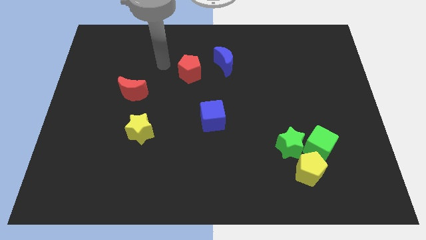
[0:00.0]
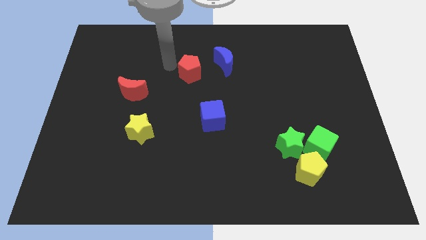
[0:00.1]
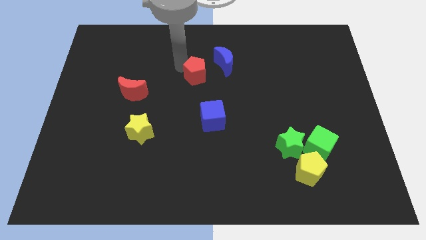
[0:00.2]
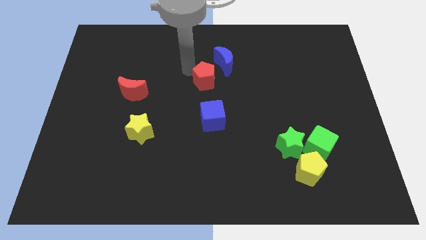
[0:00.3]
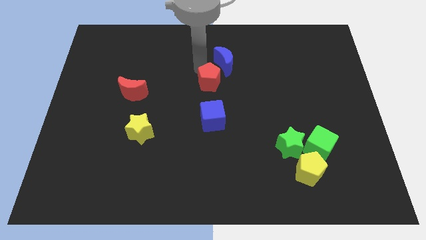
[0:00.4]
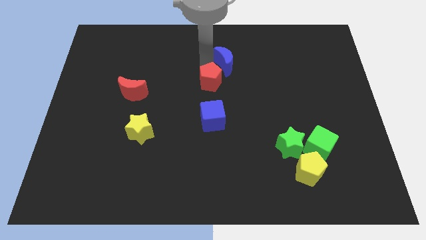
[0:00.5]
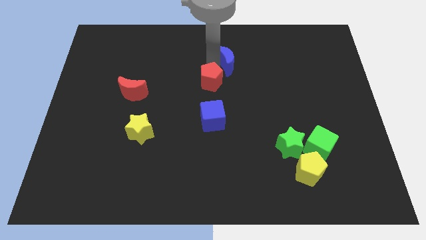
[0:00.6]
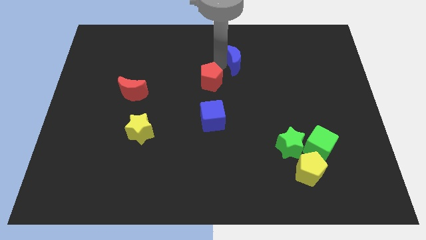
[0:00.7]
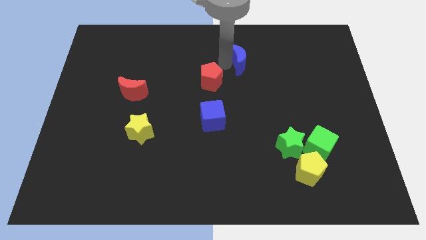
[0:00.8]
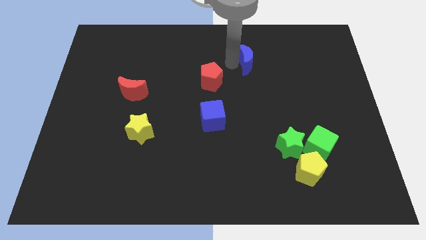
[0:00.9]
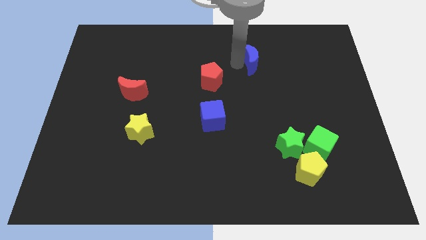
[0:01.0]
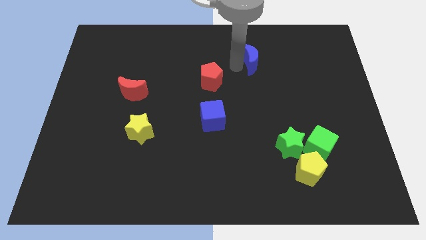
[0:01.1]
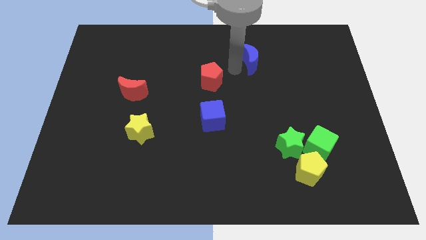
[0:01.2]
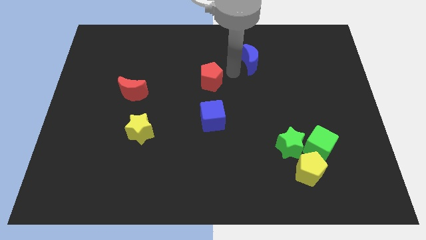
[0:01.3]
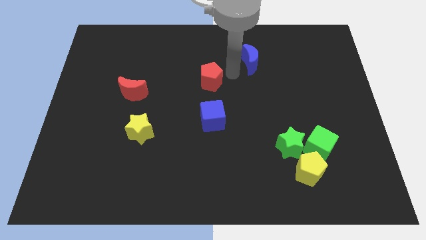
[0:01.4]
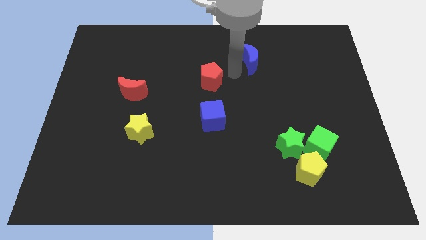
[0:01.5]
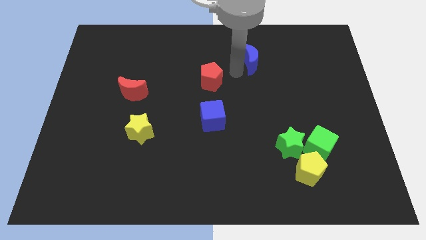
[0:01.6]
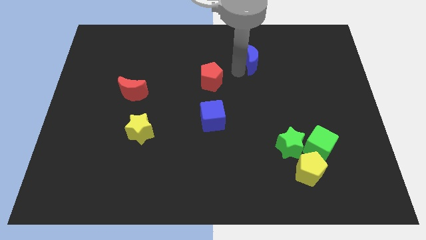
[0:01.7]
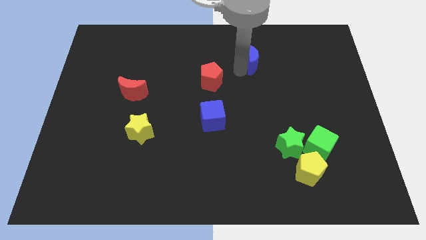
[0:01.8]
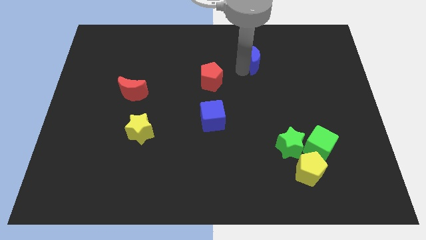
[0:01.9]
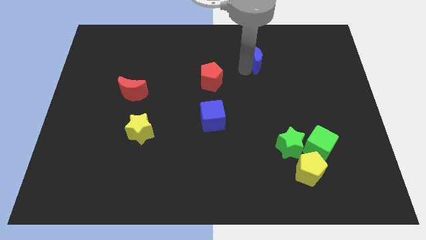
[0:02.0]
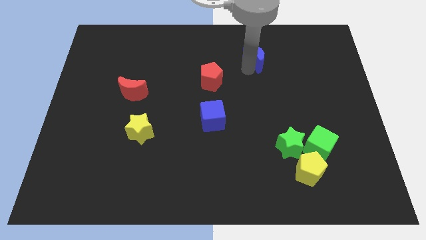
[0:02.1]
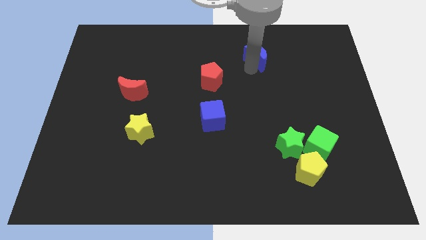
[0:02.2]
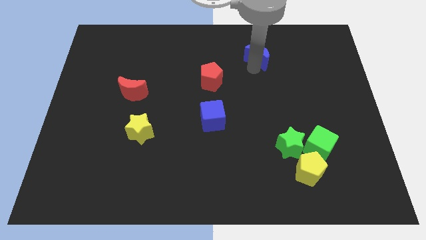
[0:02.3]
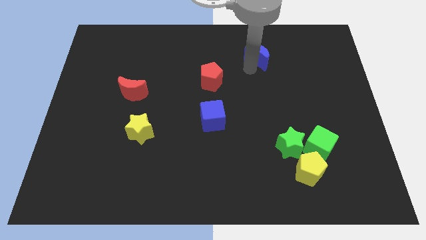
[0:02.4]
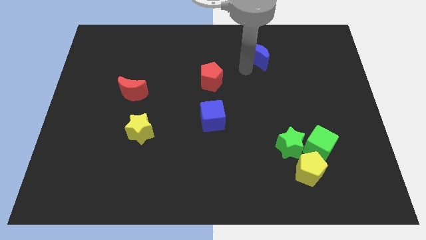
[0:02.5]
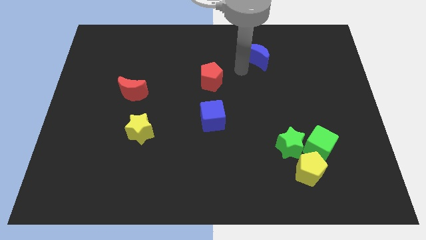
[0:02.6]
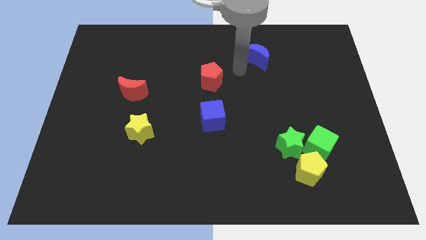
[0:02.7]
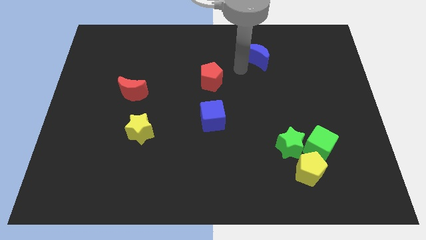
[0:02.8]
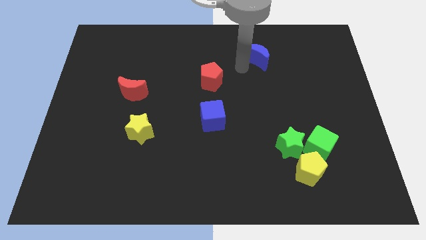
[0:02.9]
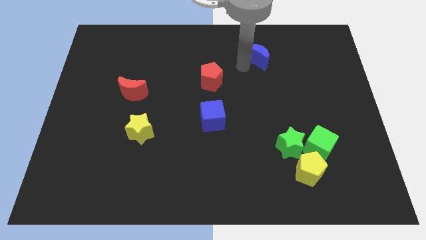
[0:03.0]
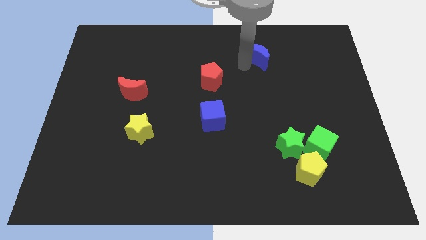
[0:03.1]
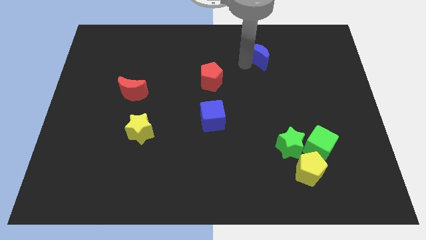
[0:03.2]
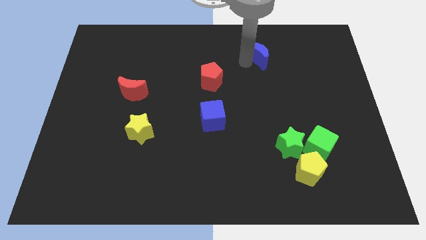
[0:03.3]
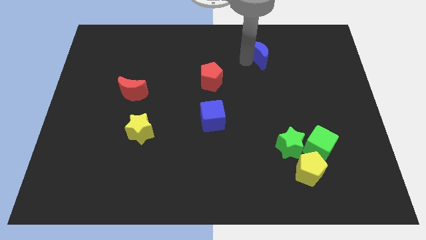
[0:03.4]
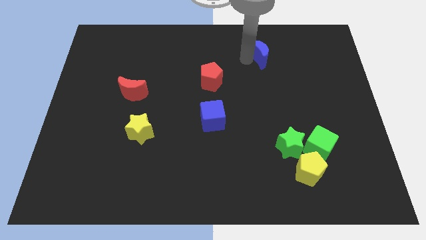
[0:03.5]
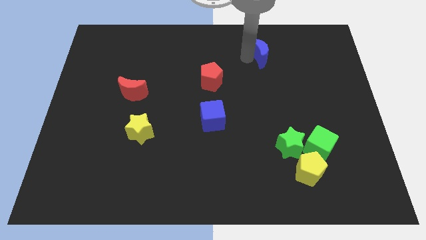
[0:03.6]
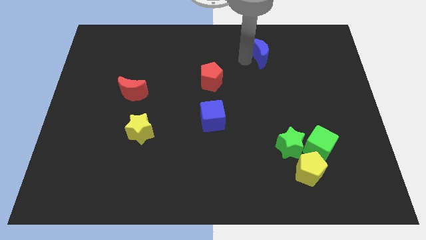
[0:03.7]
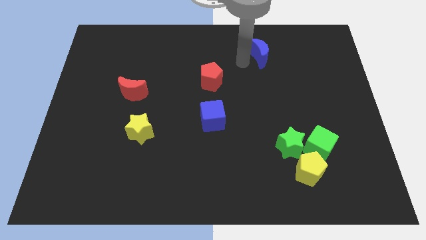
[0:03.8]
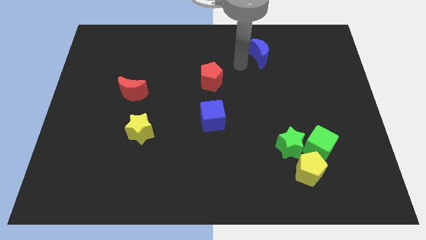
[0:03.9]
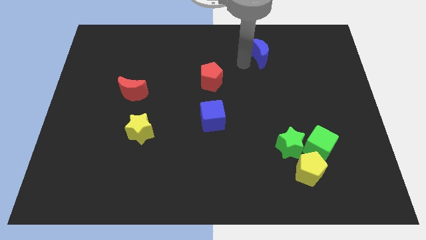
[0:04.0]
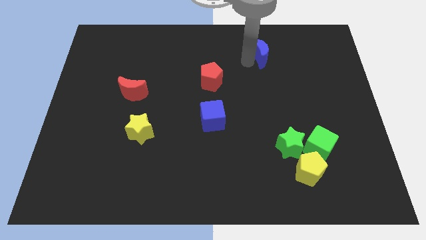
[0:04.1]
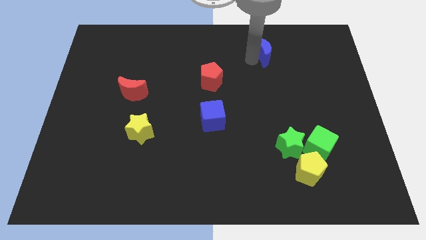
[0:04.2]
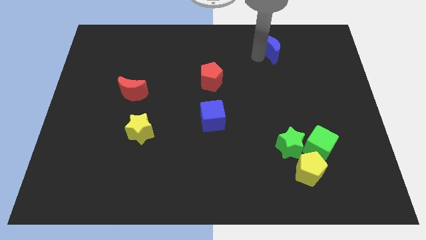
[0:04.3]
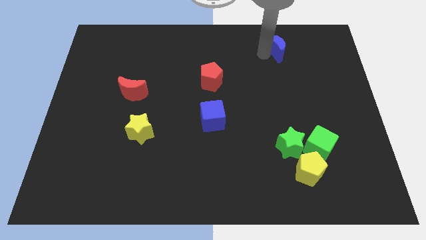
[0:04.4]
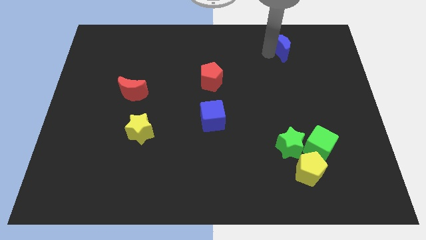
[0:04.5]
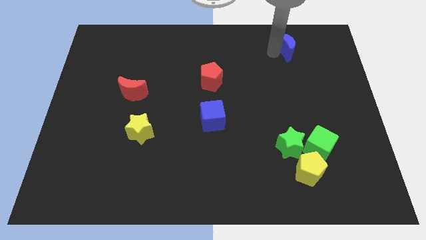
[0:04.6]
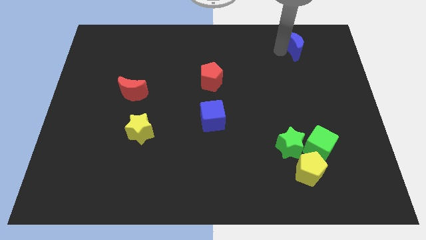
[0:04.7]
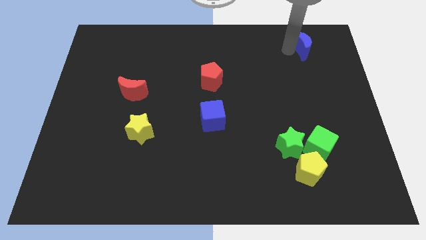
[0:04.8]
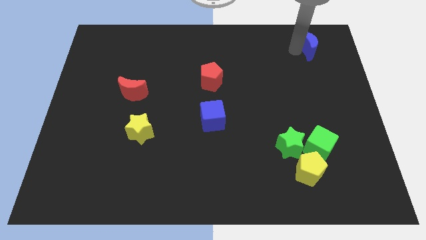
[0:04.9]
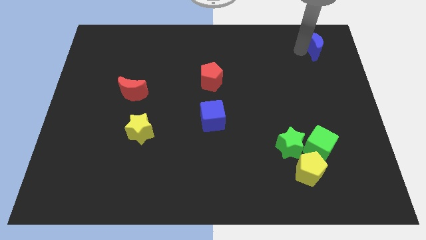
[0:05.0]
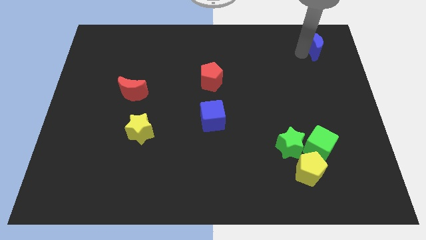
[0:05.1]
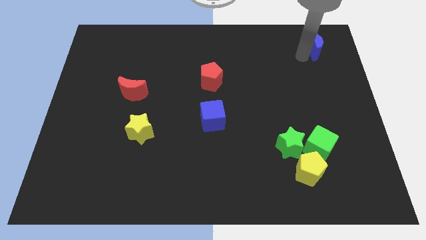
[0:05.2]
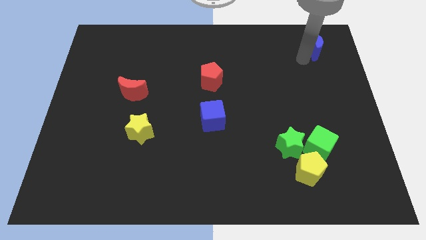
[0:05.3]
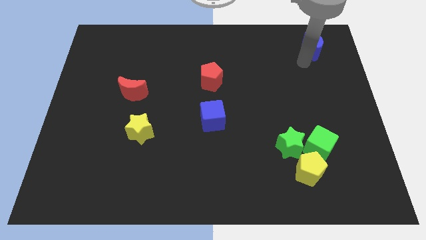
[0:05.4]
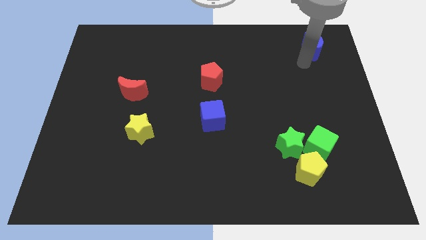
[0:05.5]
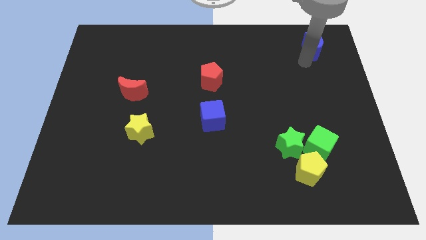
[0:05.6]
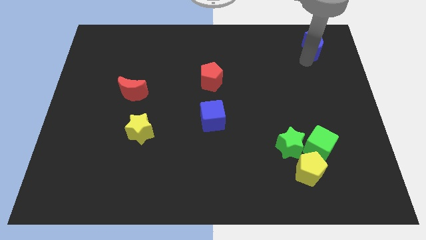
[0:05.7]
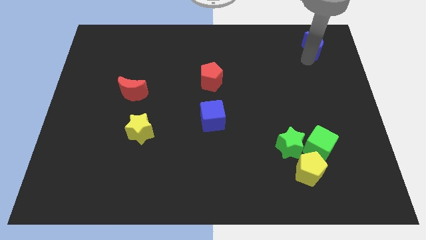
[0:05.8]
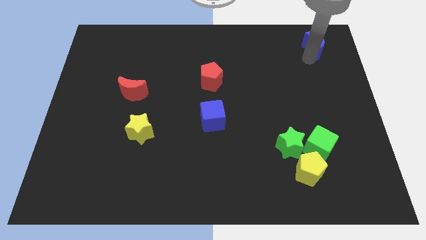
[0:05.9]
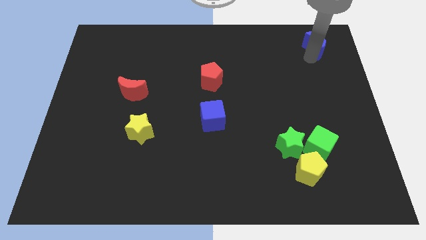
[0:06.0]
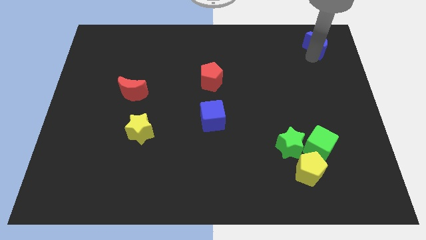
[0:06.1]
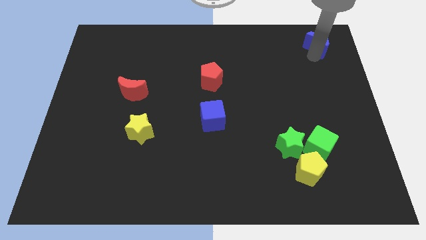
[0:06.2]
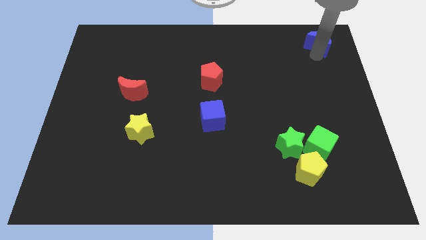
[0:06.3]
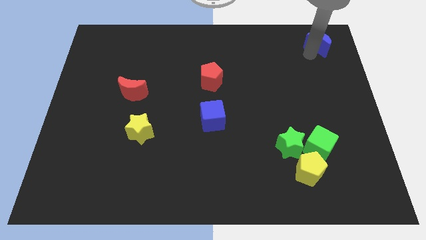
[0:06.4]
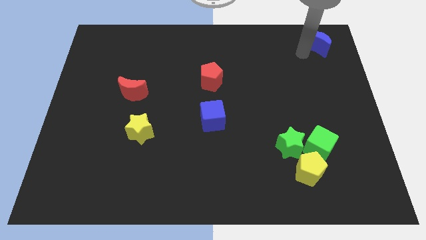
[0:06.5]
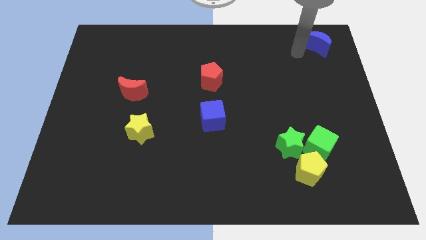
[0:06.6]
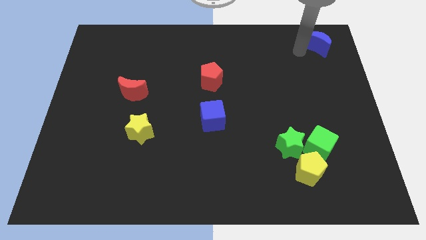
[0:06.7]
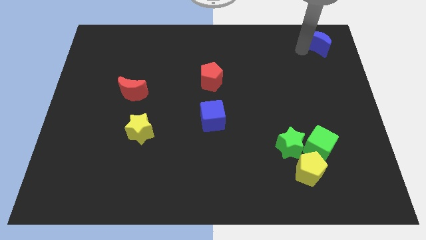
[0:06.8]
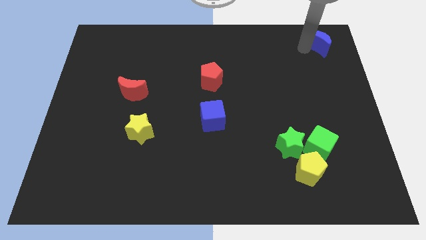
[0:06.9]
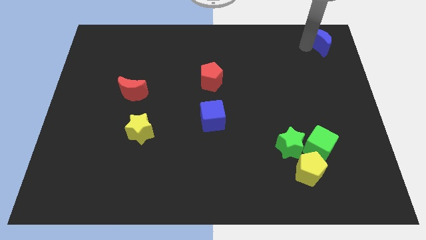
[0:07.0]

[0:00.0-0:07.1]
push the blue moon to the top right corner
